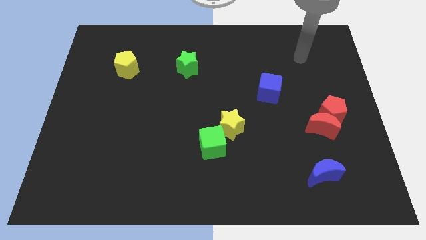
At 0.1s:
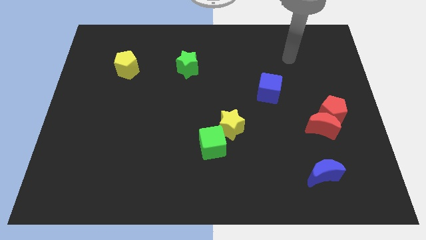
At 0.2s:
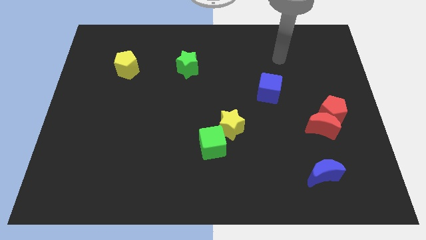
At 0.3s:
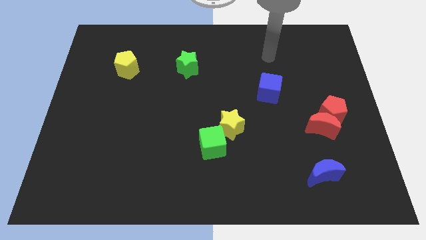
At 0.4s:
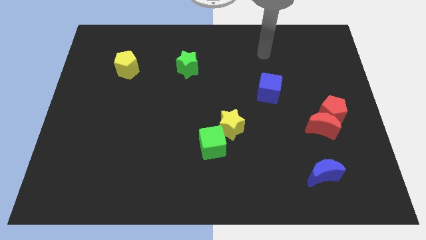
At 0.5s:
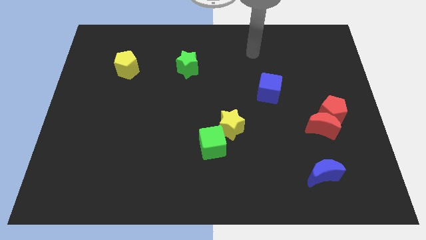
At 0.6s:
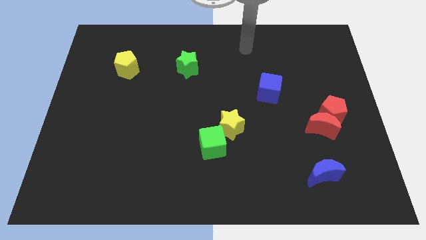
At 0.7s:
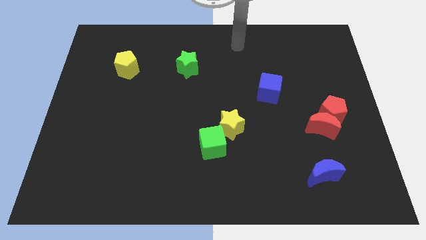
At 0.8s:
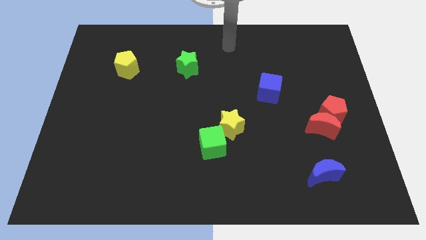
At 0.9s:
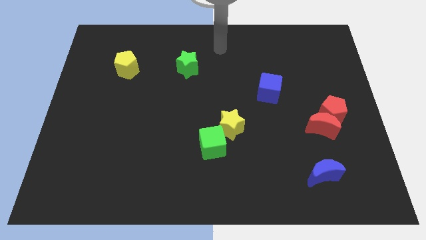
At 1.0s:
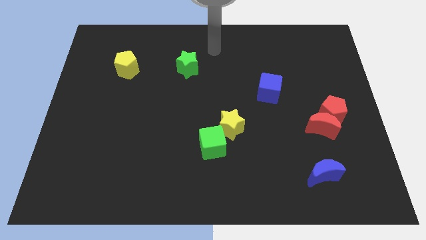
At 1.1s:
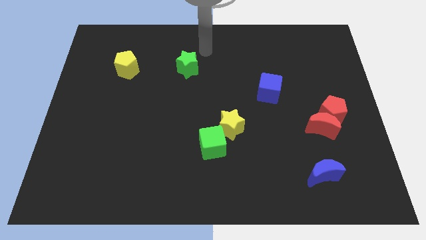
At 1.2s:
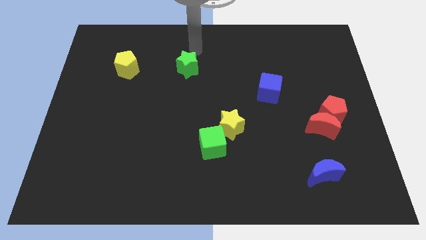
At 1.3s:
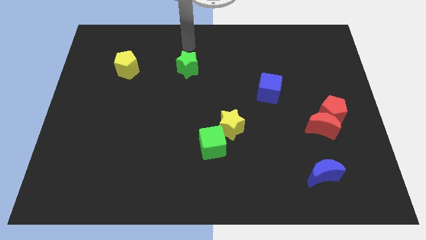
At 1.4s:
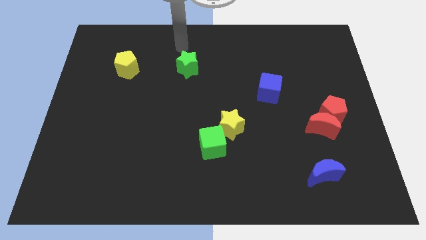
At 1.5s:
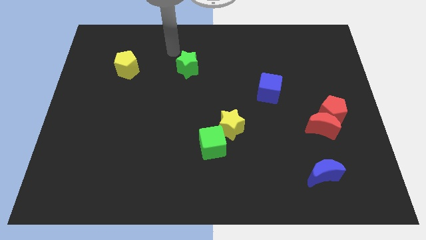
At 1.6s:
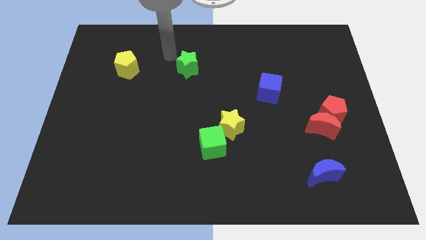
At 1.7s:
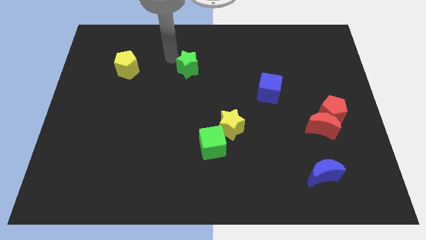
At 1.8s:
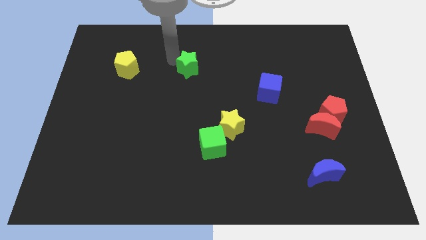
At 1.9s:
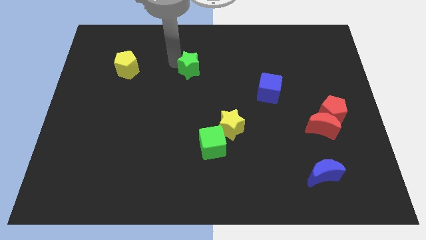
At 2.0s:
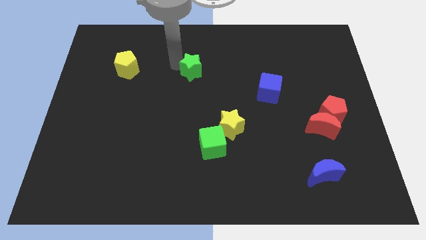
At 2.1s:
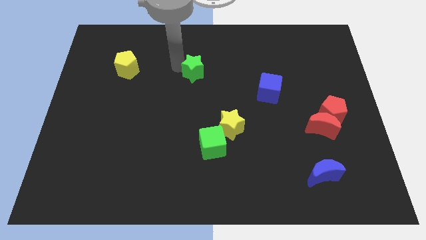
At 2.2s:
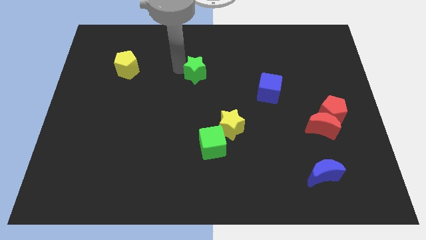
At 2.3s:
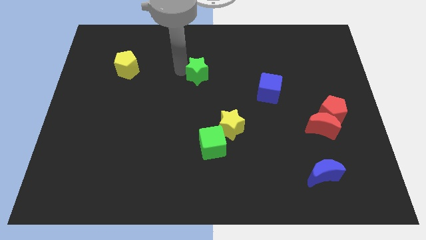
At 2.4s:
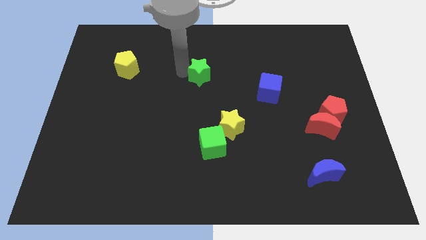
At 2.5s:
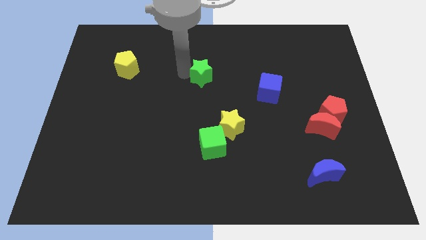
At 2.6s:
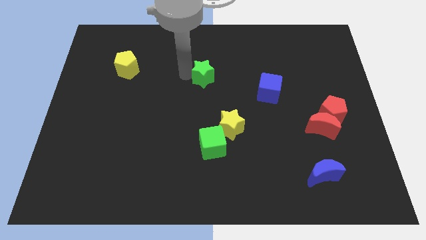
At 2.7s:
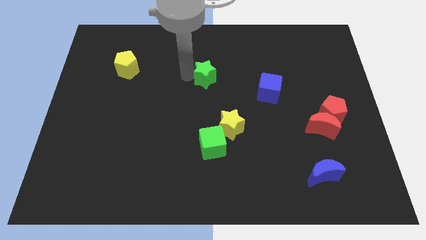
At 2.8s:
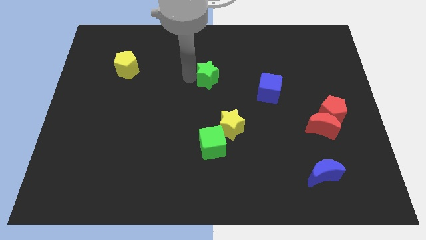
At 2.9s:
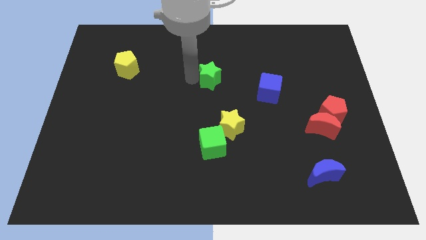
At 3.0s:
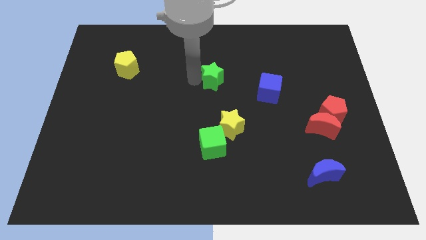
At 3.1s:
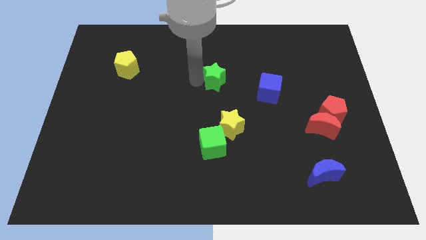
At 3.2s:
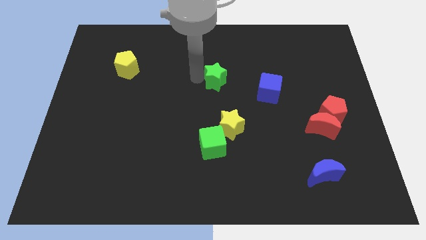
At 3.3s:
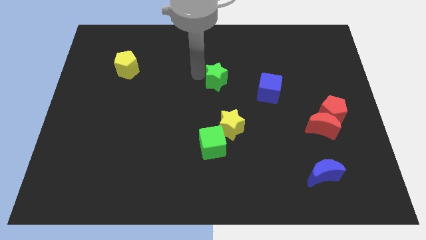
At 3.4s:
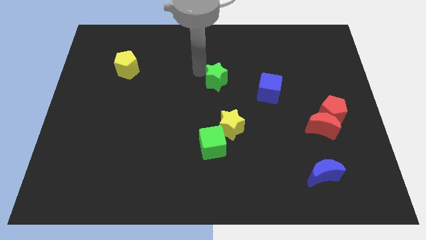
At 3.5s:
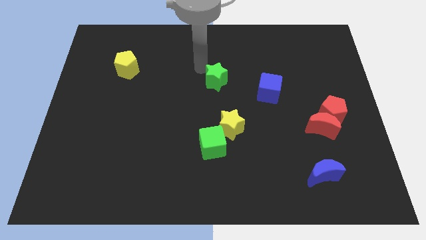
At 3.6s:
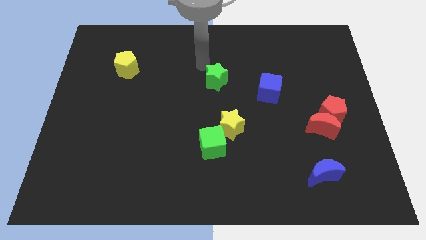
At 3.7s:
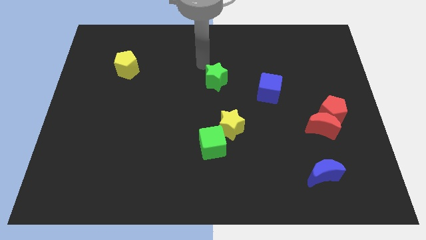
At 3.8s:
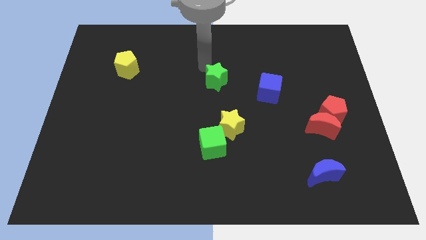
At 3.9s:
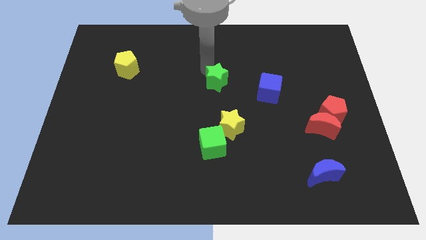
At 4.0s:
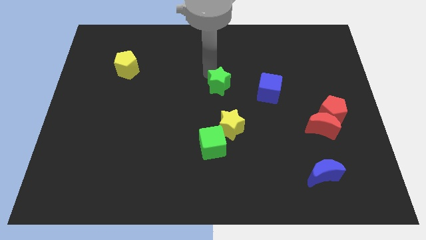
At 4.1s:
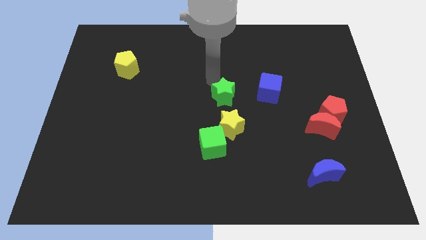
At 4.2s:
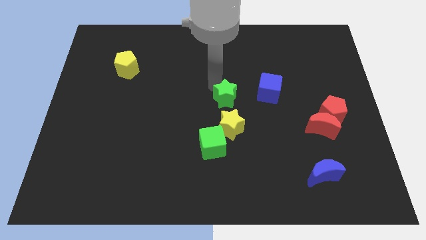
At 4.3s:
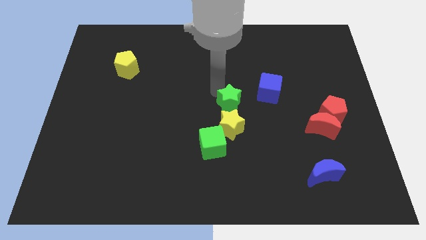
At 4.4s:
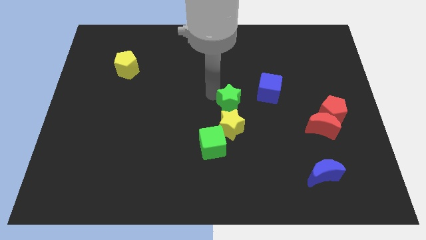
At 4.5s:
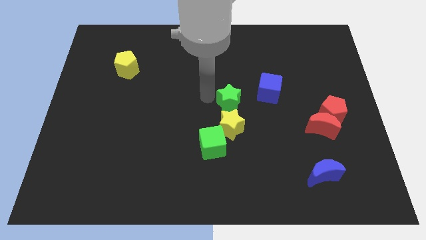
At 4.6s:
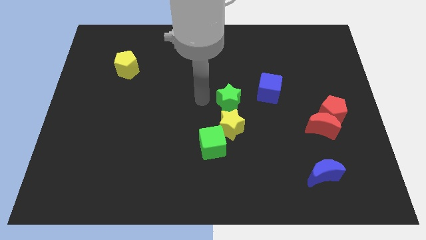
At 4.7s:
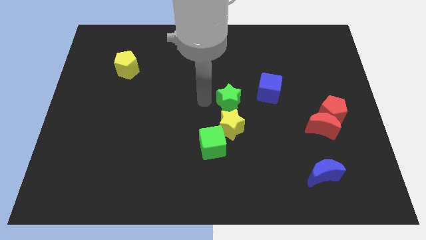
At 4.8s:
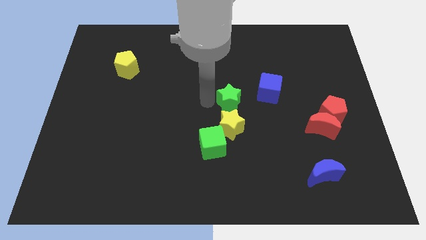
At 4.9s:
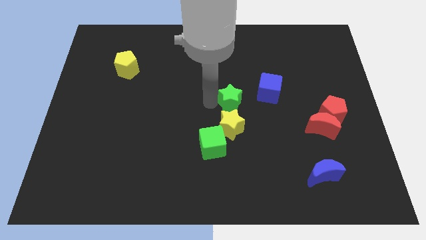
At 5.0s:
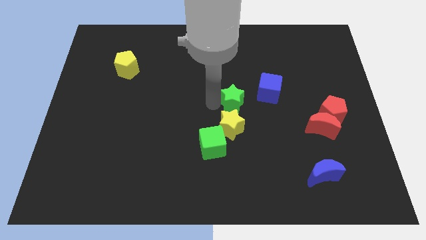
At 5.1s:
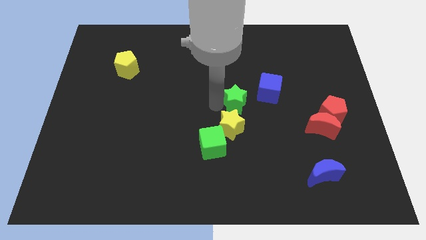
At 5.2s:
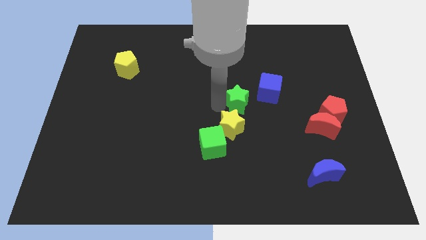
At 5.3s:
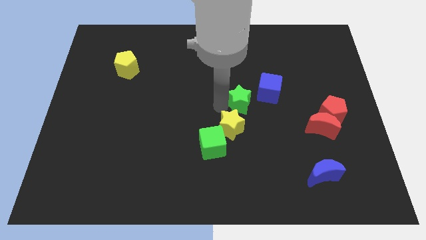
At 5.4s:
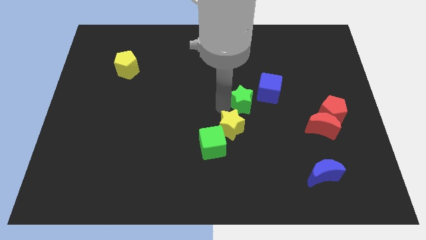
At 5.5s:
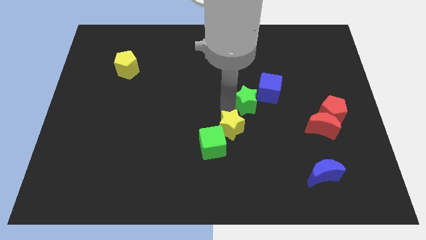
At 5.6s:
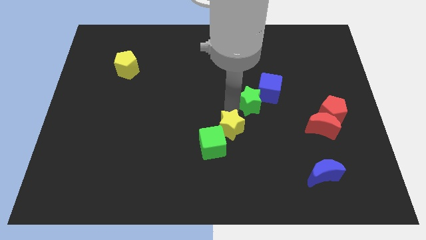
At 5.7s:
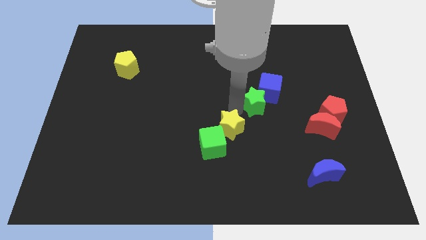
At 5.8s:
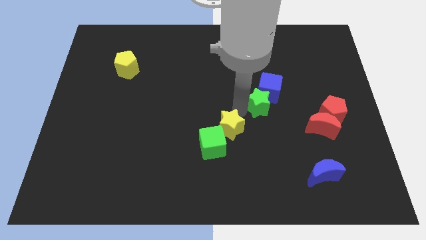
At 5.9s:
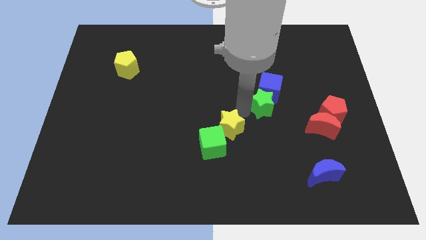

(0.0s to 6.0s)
push the green star just left of the red pentagon

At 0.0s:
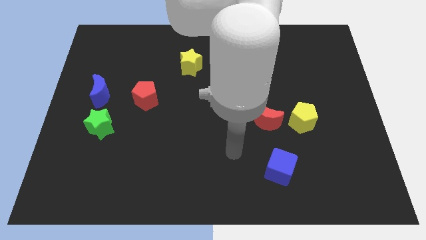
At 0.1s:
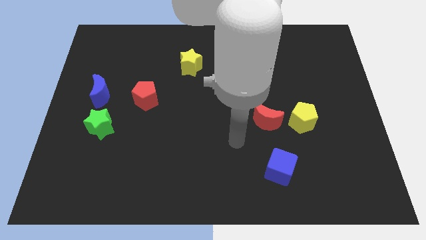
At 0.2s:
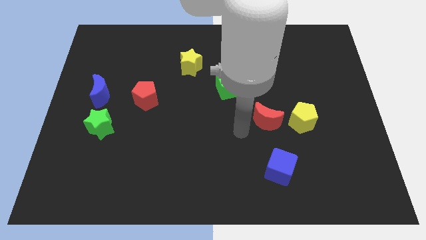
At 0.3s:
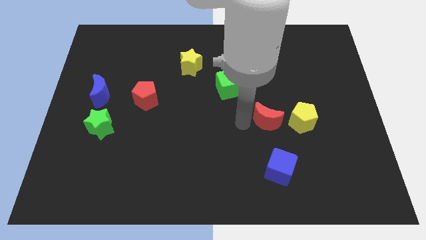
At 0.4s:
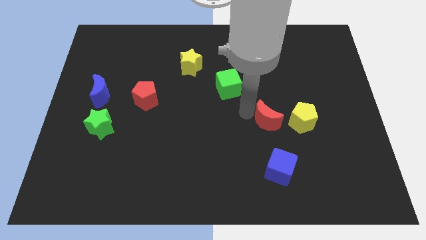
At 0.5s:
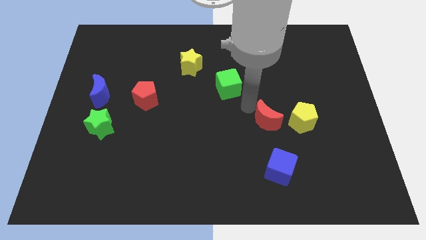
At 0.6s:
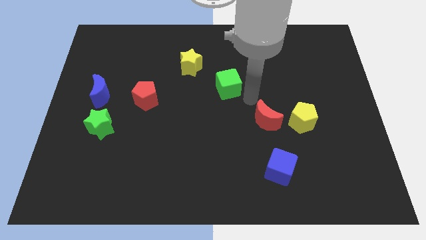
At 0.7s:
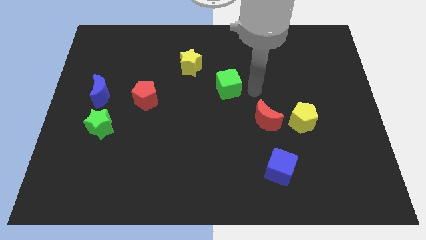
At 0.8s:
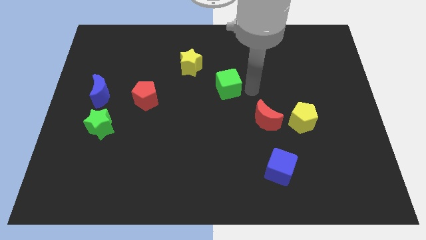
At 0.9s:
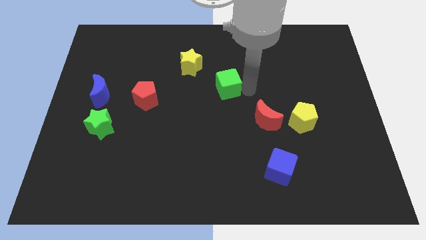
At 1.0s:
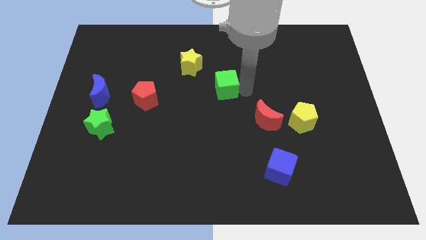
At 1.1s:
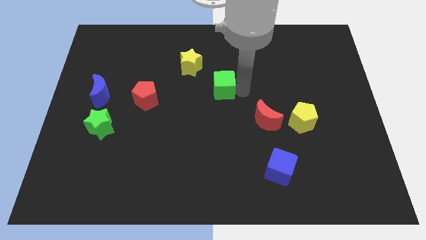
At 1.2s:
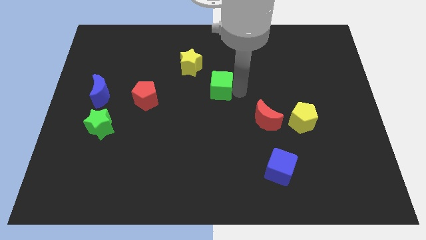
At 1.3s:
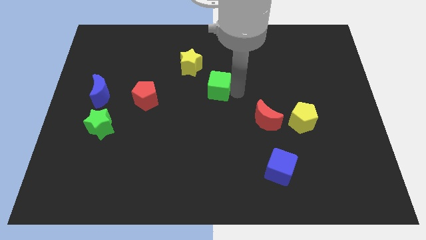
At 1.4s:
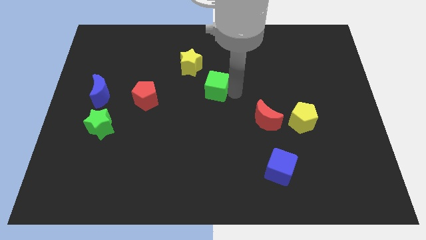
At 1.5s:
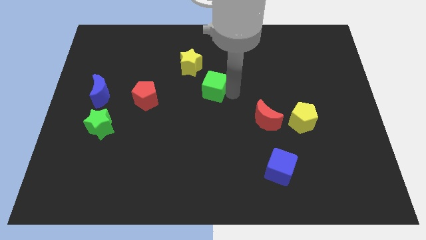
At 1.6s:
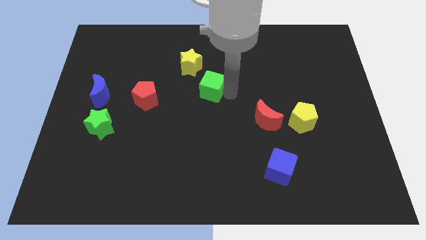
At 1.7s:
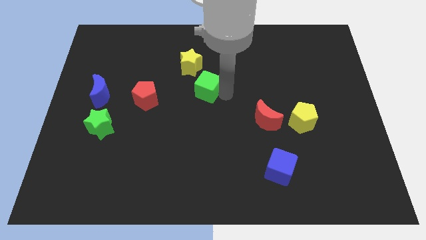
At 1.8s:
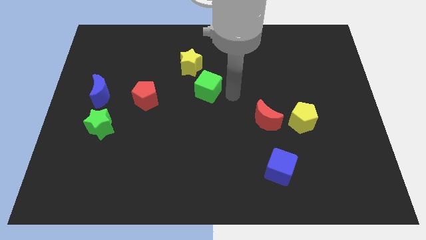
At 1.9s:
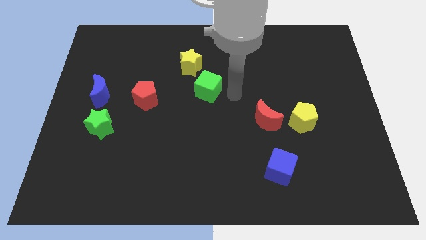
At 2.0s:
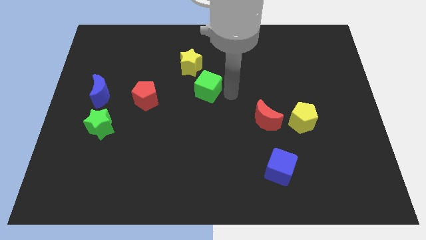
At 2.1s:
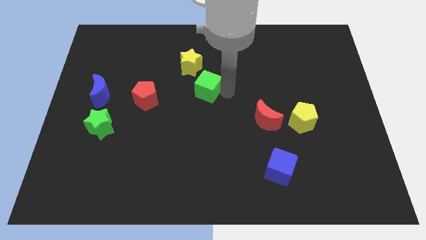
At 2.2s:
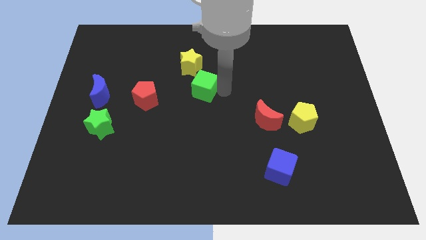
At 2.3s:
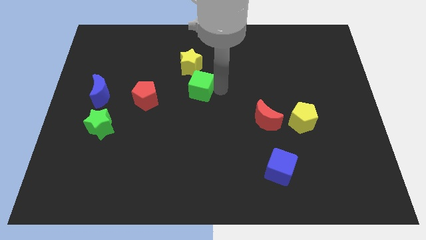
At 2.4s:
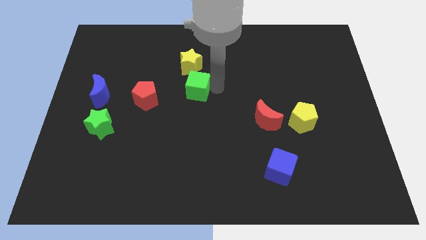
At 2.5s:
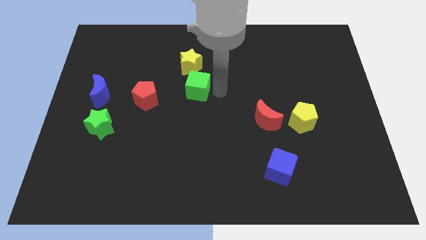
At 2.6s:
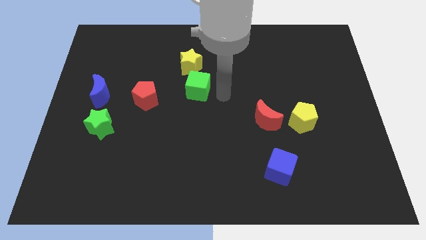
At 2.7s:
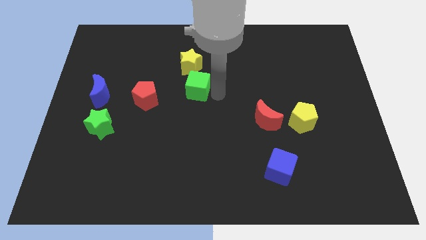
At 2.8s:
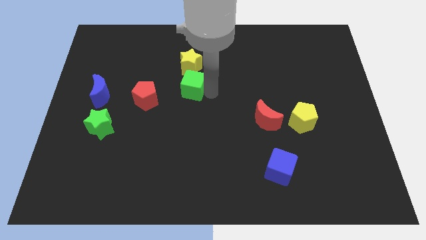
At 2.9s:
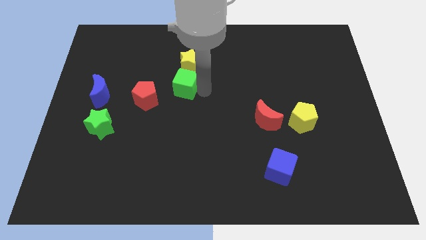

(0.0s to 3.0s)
push the green cube to the bottom left of the yellow star
